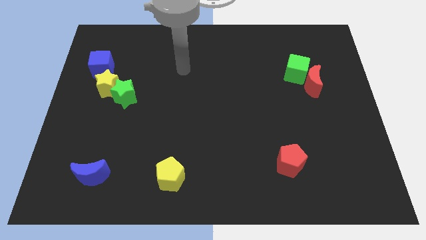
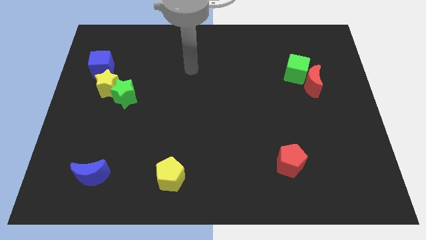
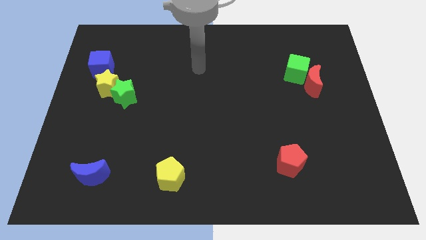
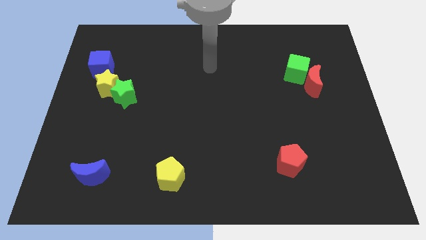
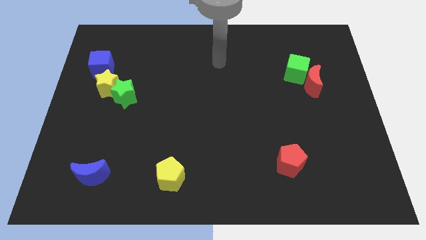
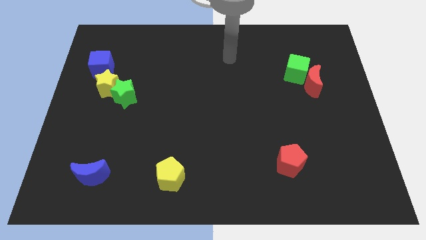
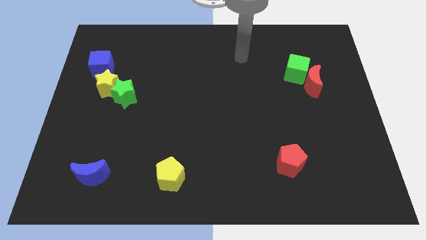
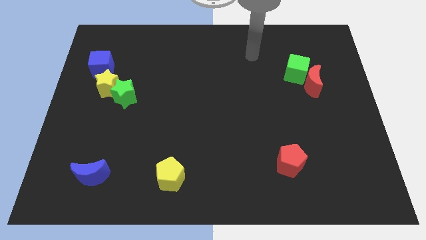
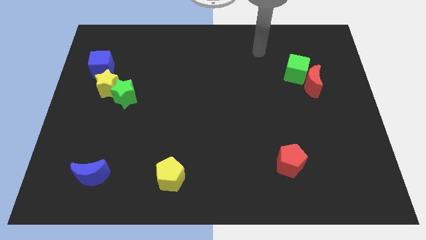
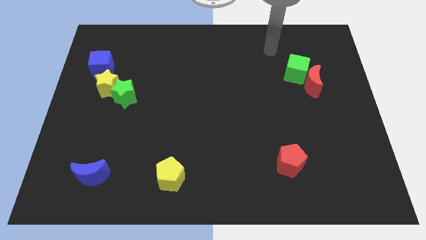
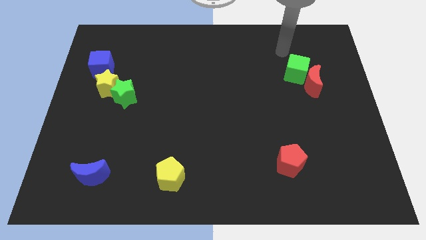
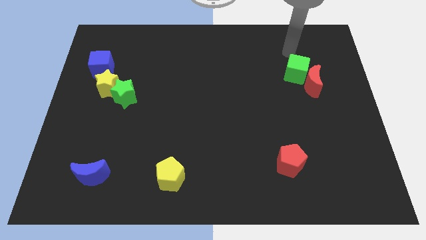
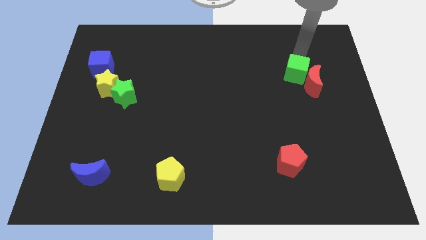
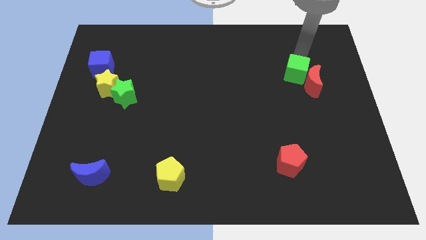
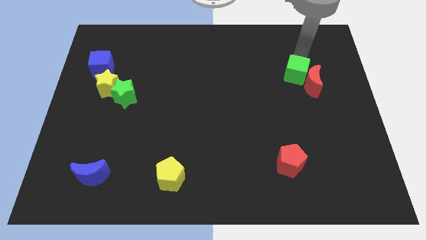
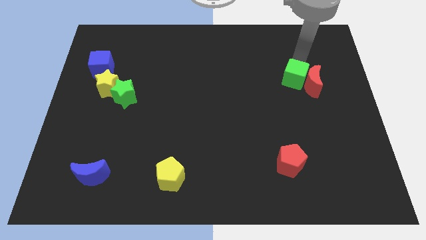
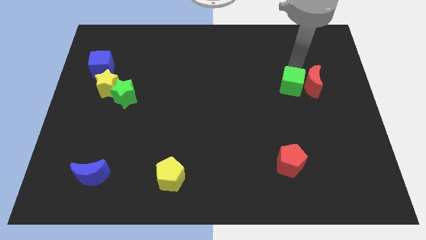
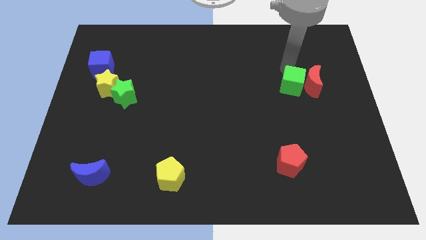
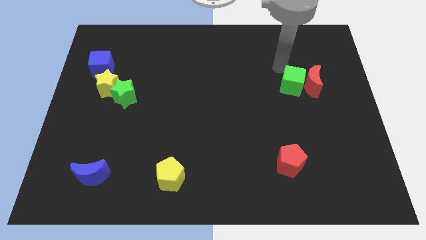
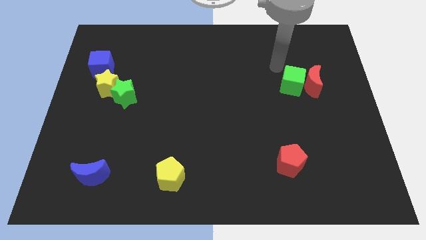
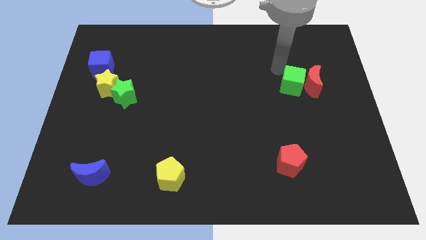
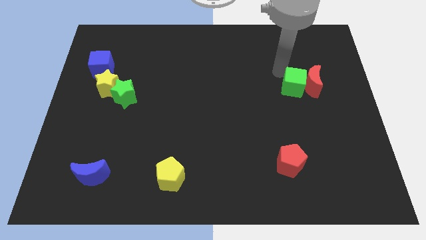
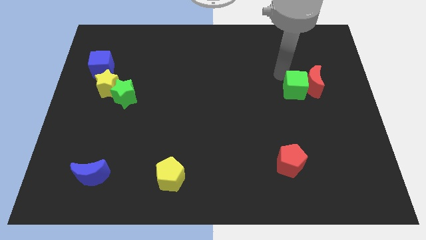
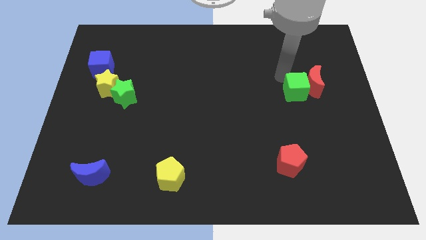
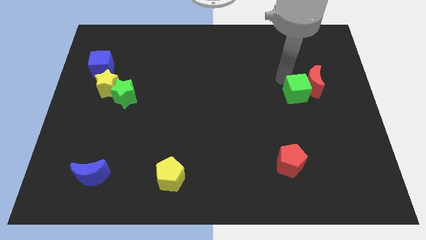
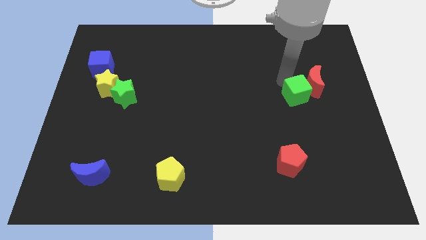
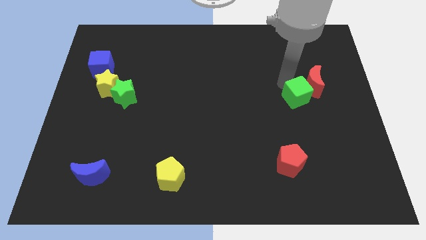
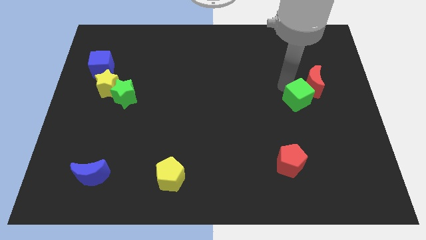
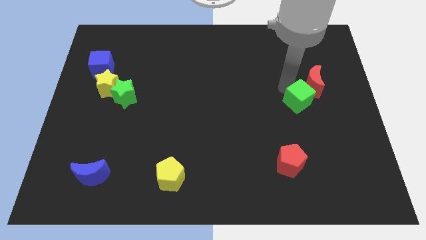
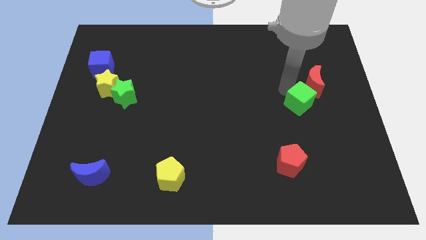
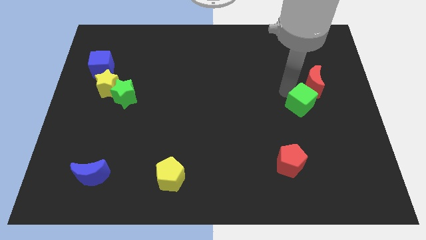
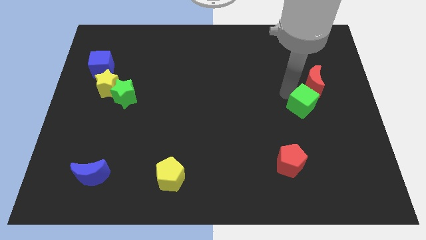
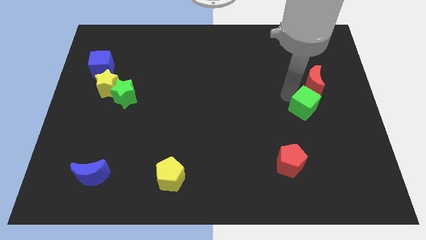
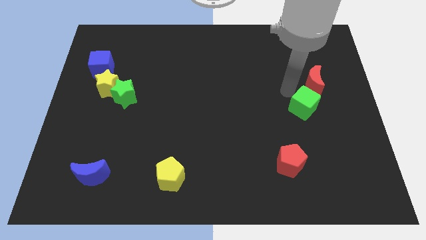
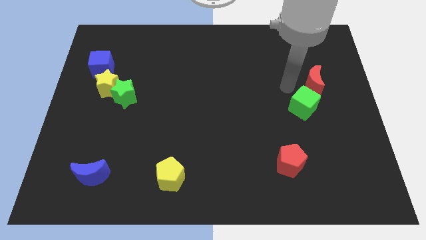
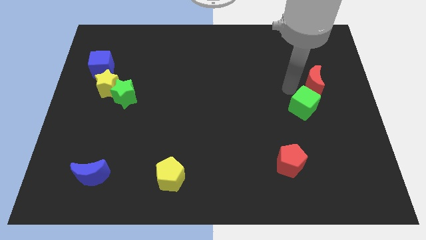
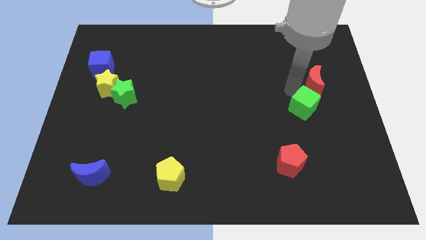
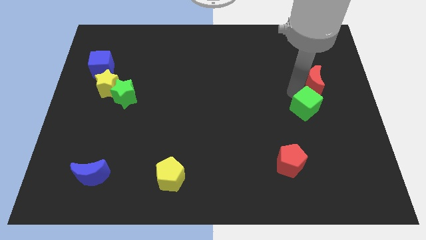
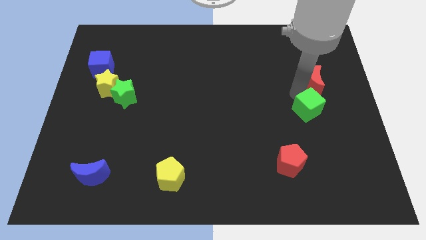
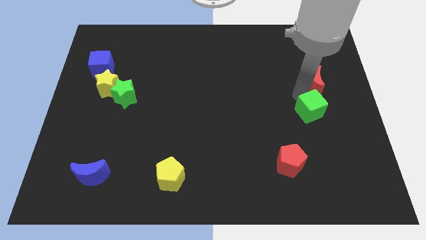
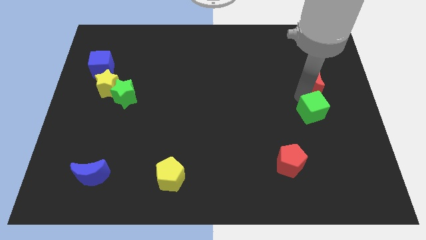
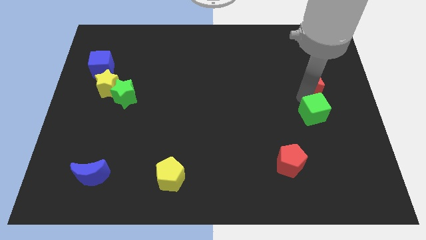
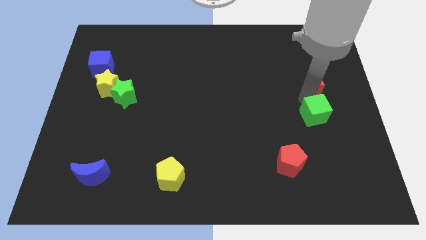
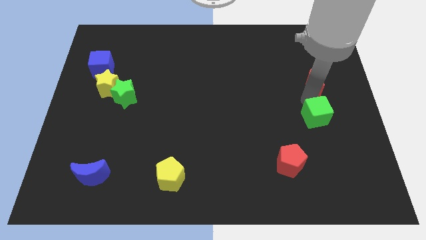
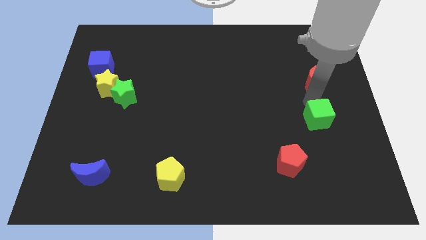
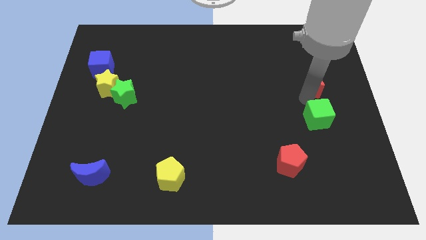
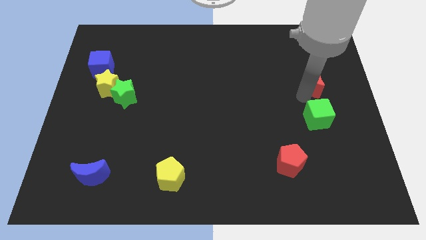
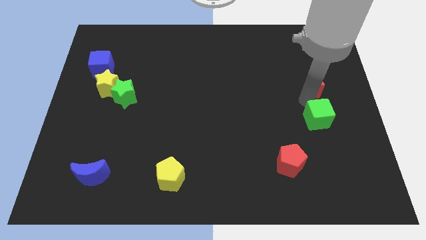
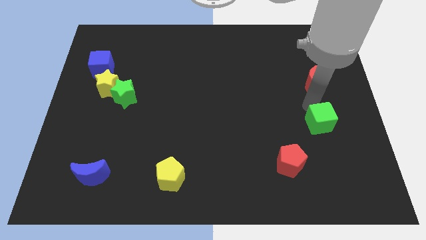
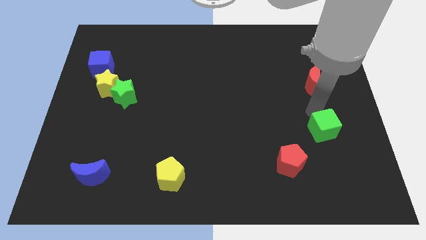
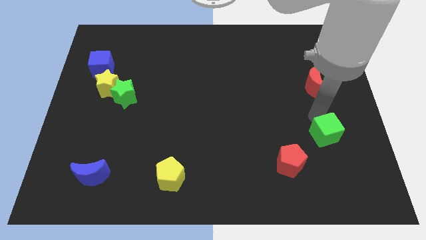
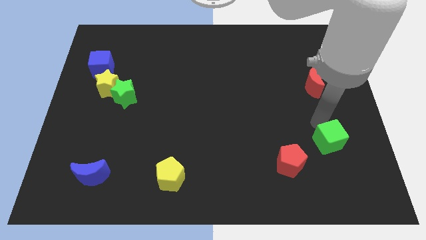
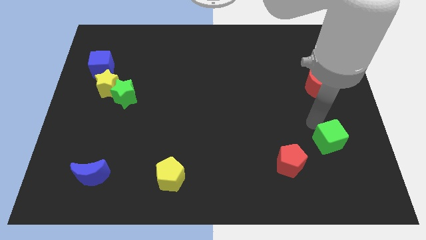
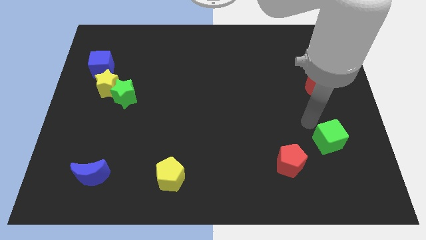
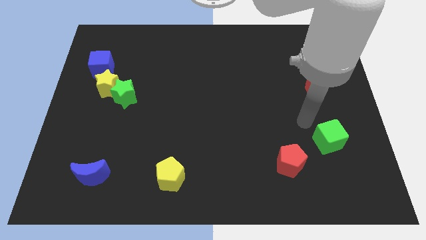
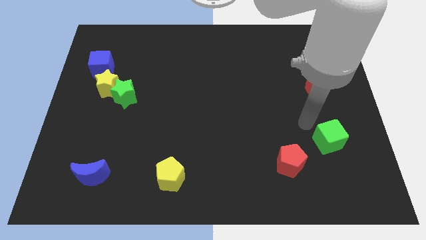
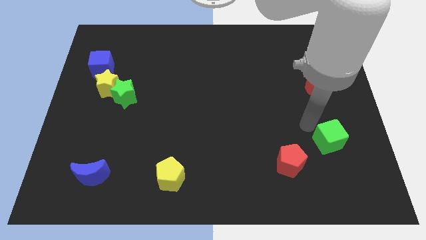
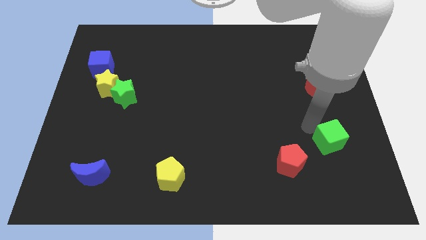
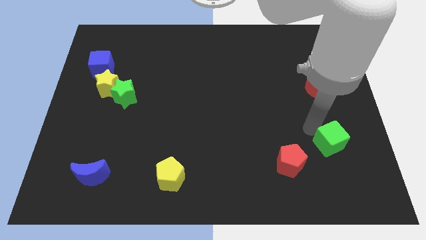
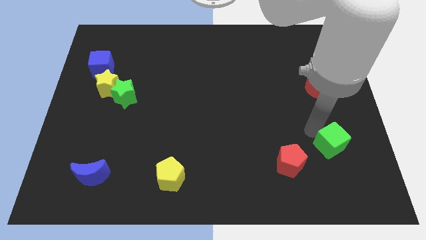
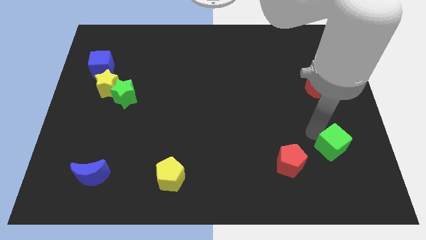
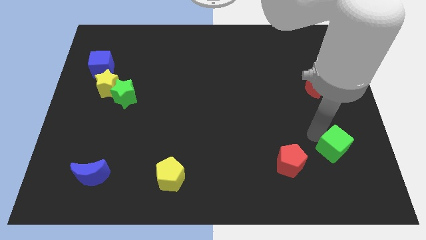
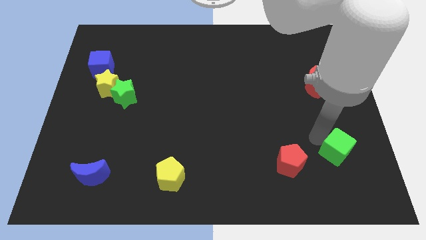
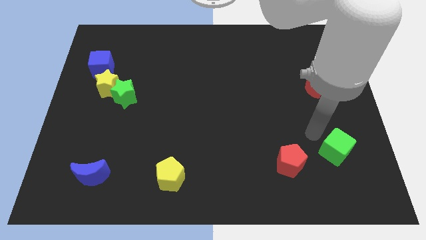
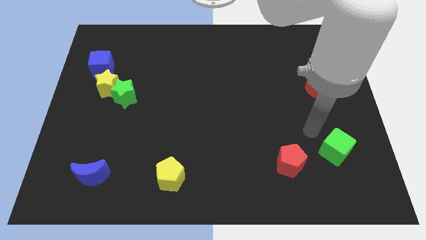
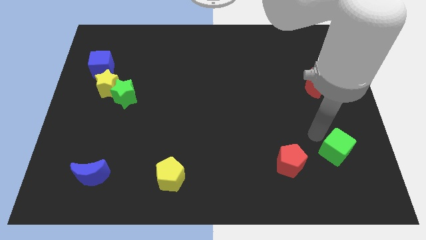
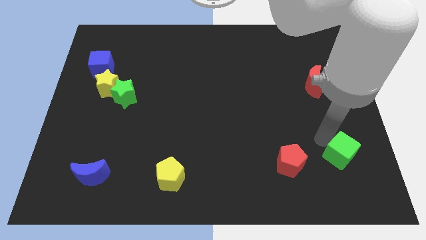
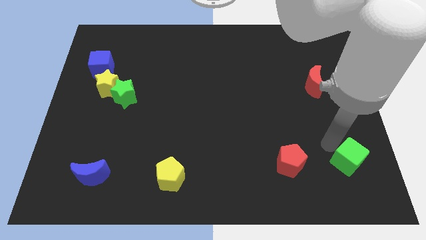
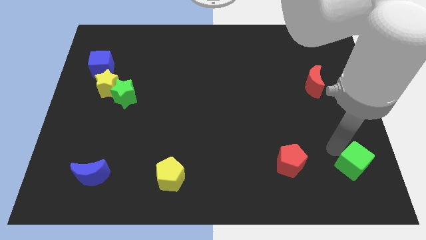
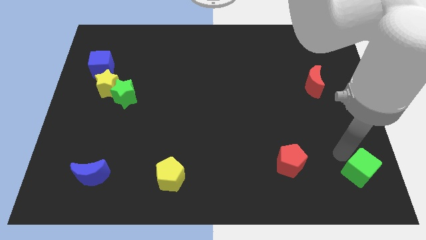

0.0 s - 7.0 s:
slide the green cube to the bottom right
